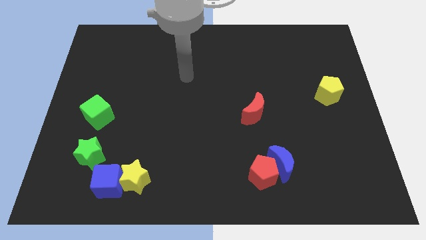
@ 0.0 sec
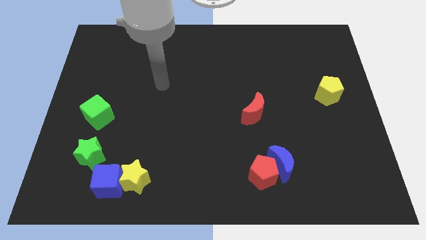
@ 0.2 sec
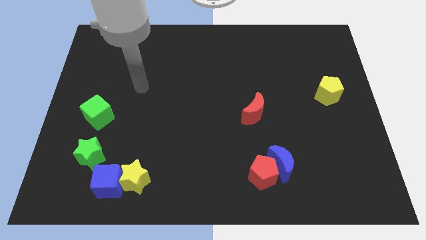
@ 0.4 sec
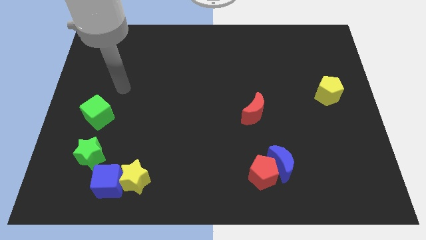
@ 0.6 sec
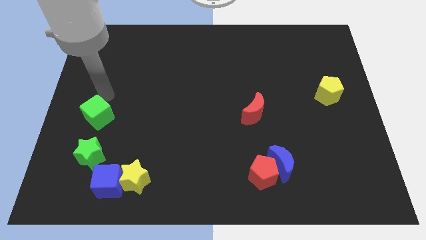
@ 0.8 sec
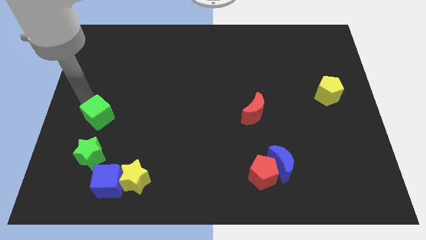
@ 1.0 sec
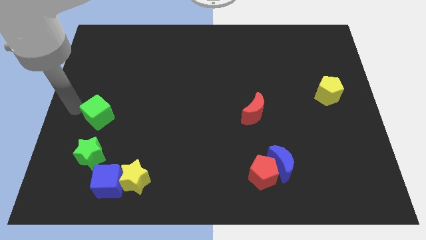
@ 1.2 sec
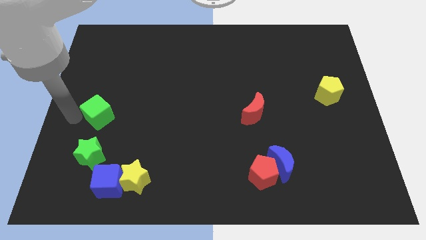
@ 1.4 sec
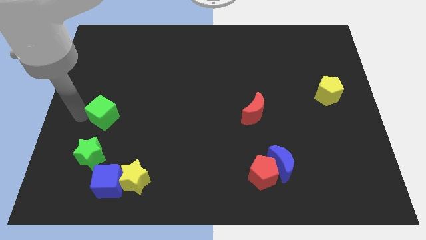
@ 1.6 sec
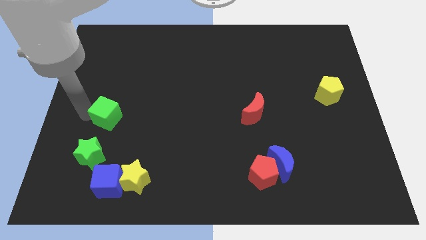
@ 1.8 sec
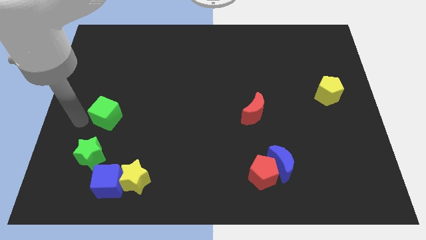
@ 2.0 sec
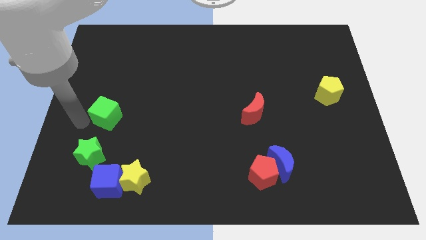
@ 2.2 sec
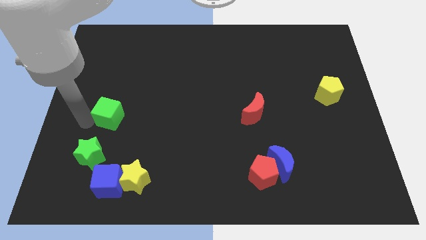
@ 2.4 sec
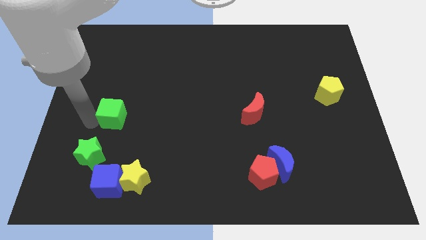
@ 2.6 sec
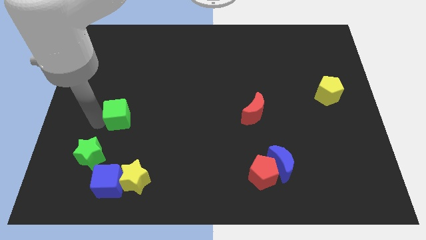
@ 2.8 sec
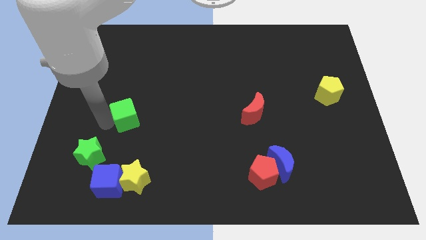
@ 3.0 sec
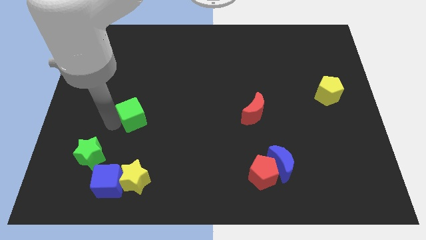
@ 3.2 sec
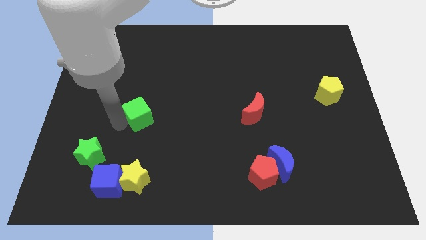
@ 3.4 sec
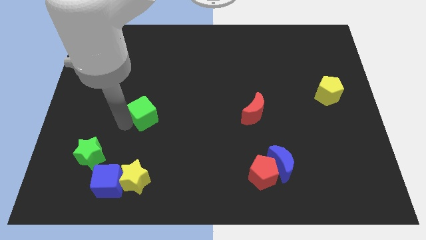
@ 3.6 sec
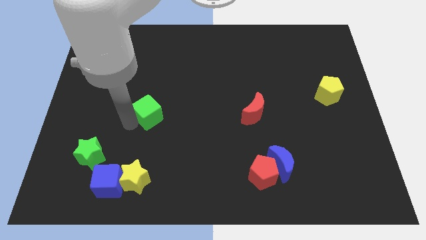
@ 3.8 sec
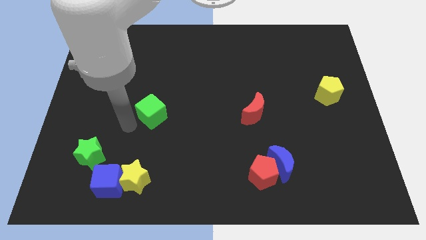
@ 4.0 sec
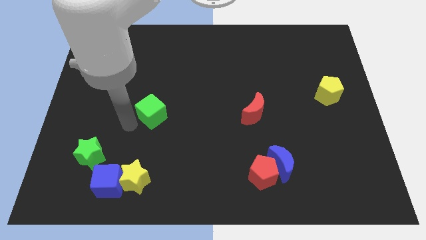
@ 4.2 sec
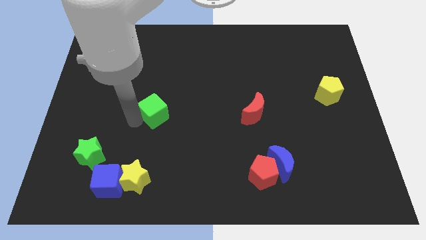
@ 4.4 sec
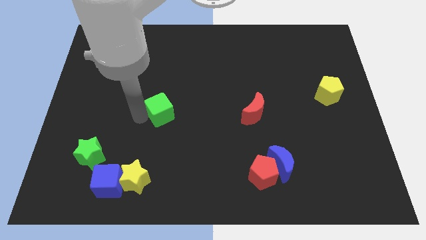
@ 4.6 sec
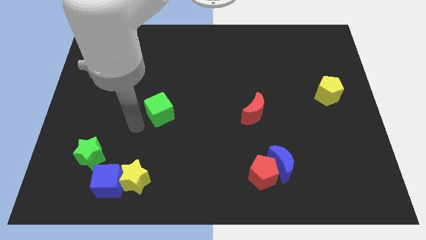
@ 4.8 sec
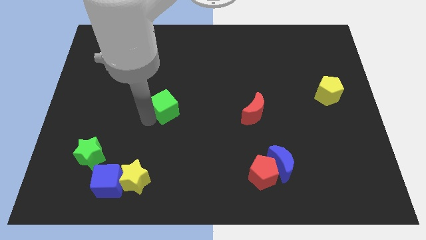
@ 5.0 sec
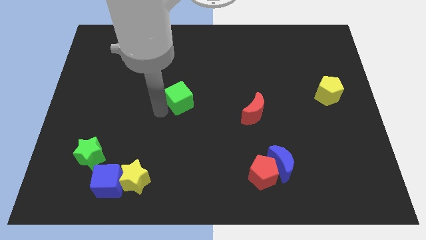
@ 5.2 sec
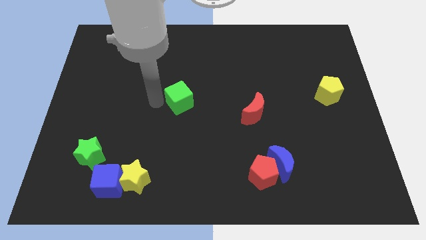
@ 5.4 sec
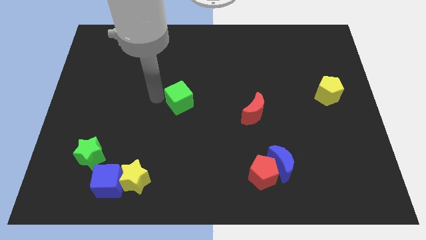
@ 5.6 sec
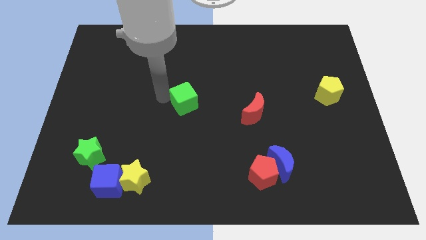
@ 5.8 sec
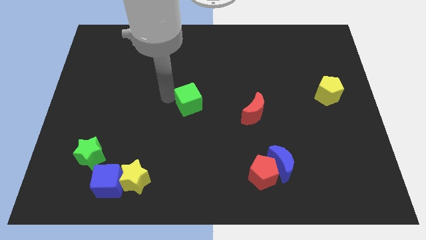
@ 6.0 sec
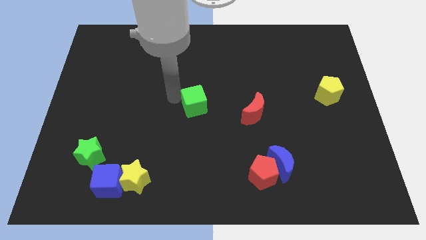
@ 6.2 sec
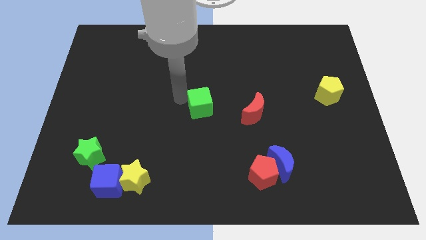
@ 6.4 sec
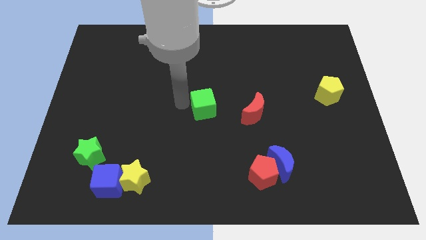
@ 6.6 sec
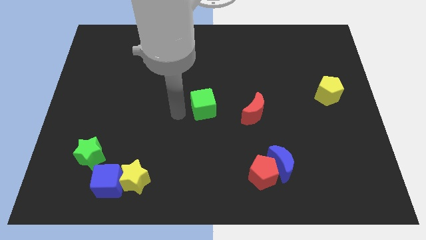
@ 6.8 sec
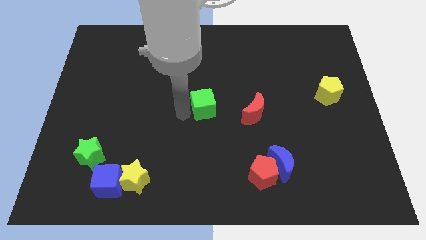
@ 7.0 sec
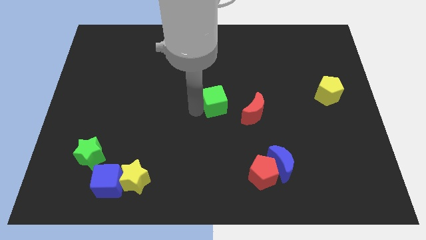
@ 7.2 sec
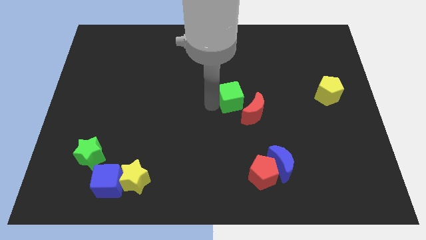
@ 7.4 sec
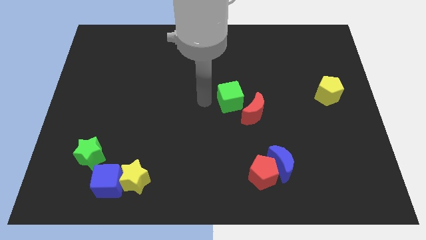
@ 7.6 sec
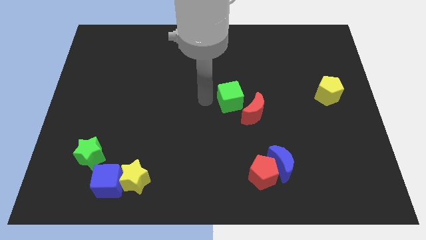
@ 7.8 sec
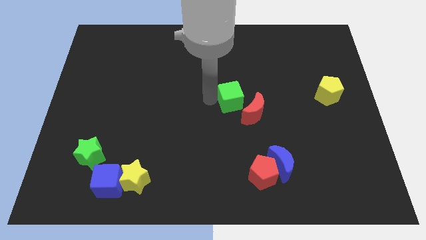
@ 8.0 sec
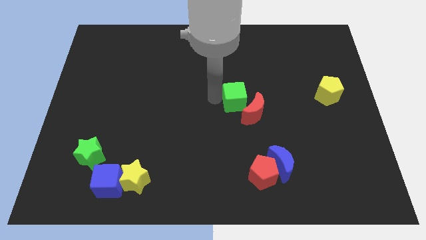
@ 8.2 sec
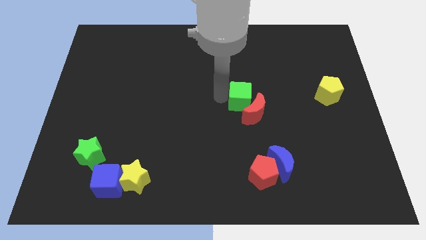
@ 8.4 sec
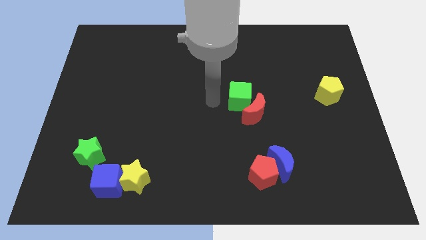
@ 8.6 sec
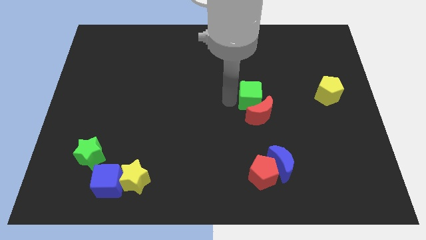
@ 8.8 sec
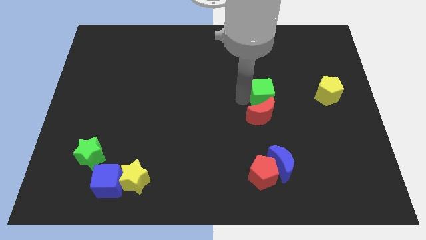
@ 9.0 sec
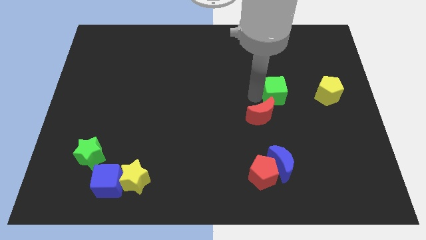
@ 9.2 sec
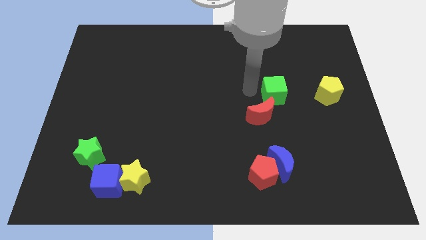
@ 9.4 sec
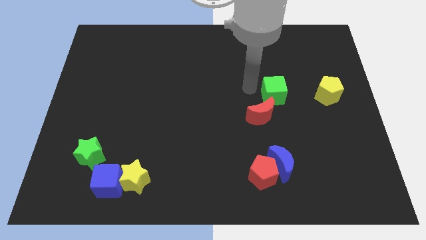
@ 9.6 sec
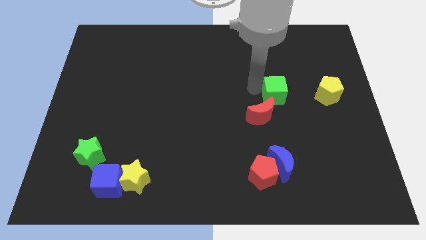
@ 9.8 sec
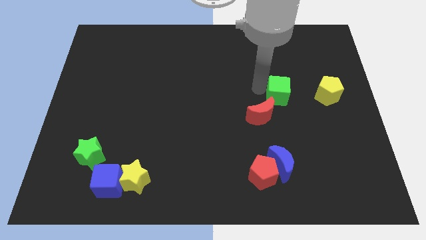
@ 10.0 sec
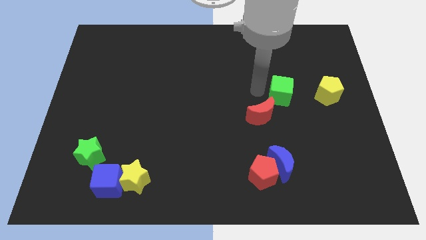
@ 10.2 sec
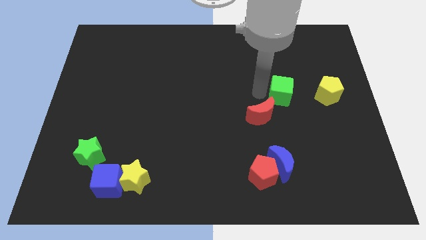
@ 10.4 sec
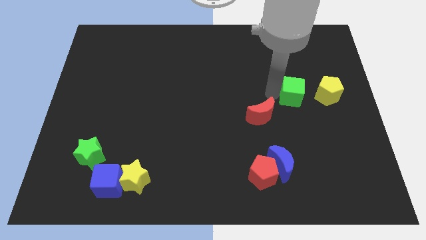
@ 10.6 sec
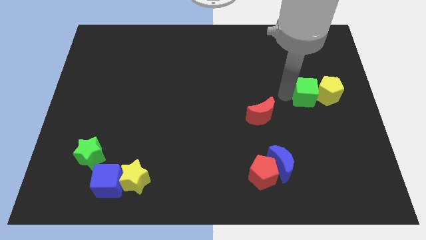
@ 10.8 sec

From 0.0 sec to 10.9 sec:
put the green cube to the yellow pentagon

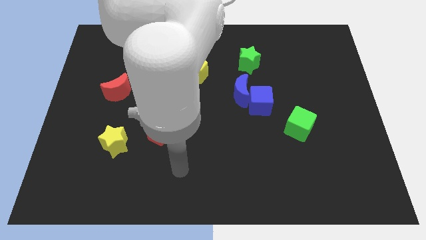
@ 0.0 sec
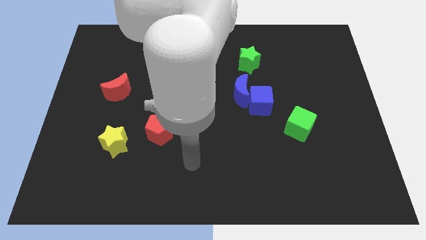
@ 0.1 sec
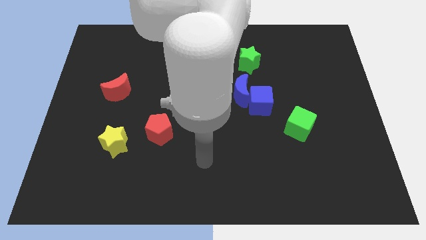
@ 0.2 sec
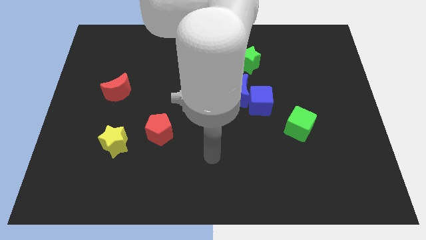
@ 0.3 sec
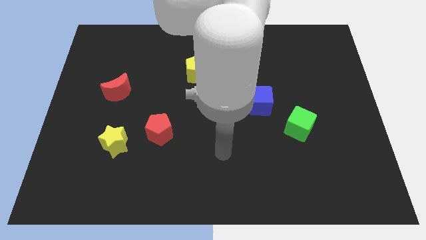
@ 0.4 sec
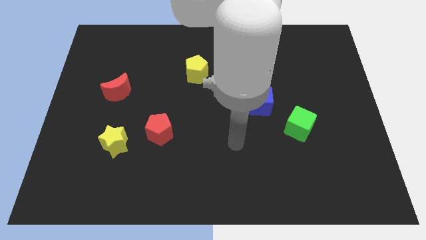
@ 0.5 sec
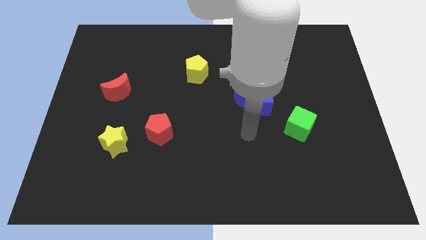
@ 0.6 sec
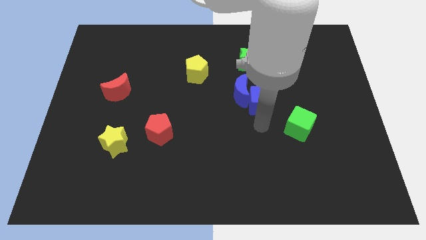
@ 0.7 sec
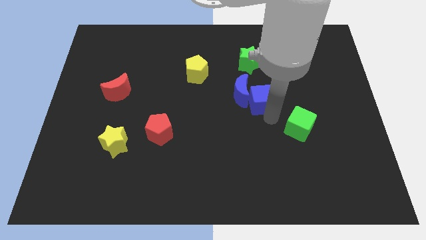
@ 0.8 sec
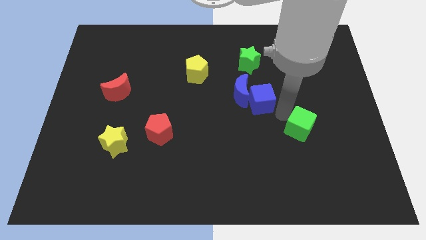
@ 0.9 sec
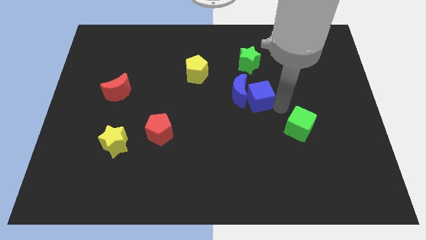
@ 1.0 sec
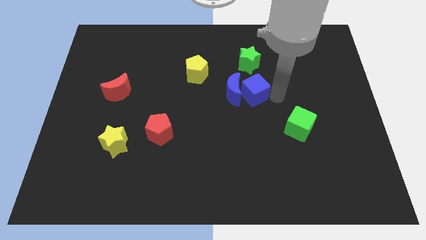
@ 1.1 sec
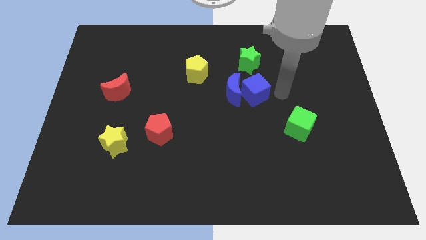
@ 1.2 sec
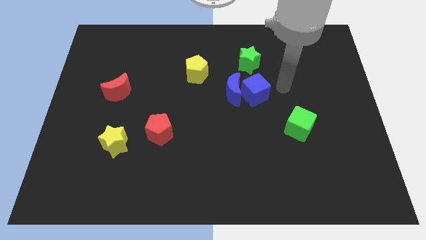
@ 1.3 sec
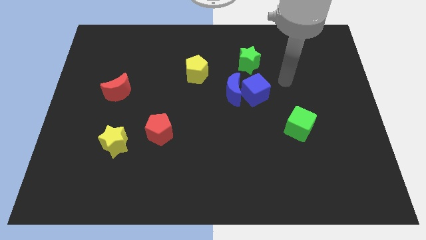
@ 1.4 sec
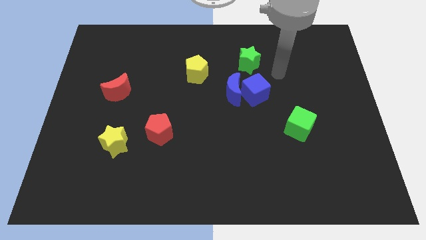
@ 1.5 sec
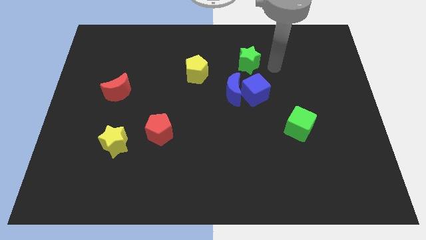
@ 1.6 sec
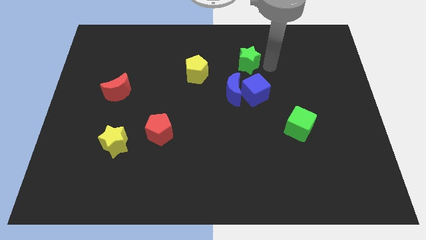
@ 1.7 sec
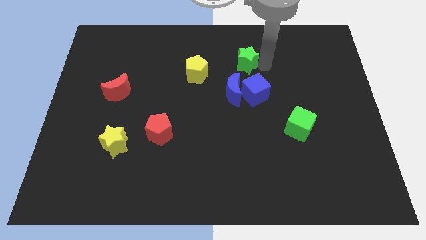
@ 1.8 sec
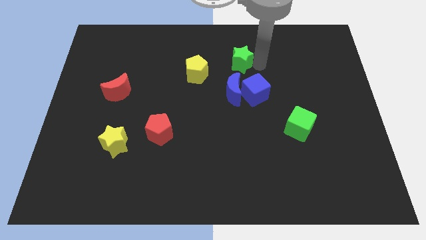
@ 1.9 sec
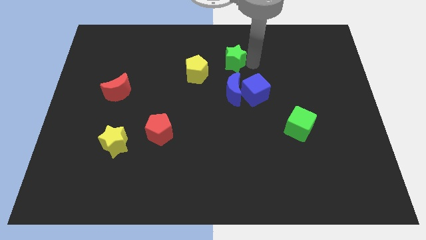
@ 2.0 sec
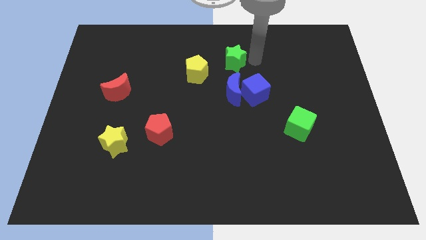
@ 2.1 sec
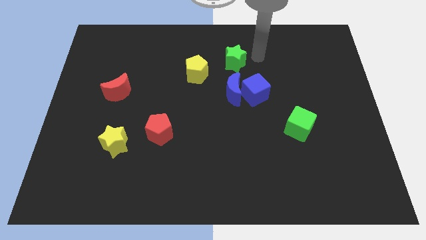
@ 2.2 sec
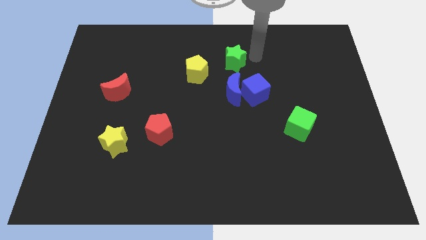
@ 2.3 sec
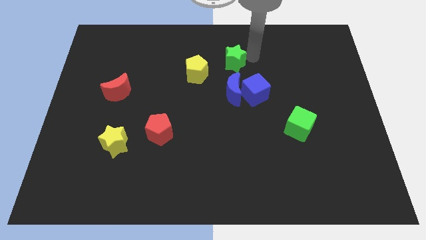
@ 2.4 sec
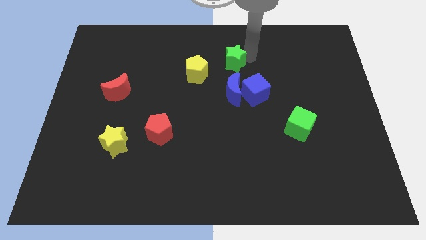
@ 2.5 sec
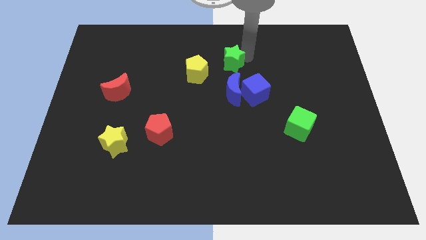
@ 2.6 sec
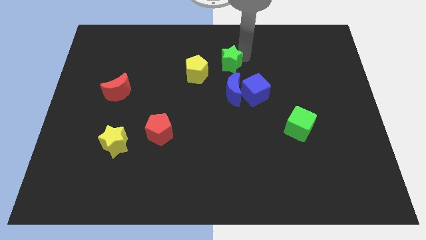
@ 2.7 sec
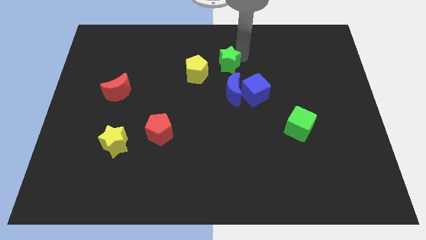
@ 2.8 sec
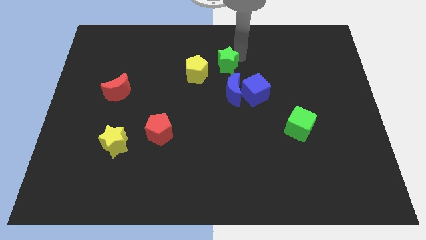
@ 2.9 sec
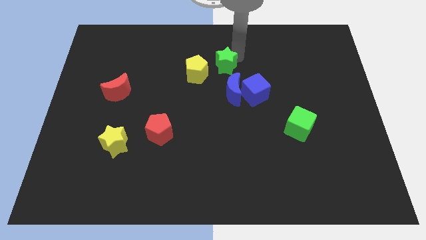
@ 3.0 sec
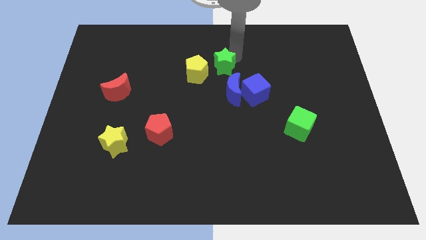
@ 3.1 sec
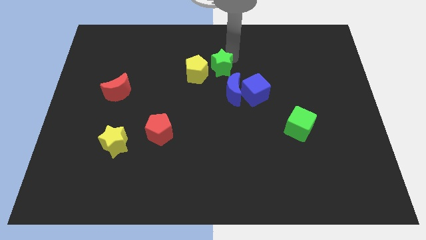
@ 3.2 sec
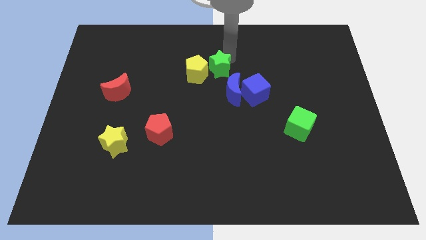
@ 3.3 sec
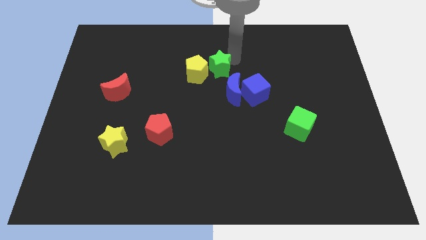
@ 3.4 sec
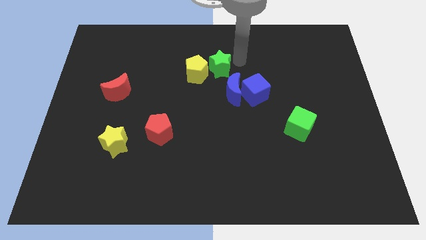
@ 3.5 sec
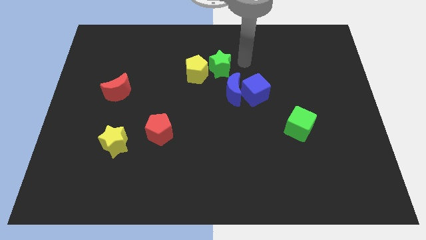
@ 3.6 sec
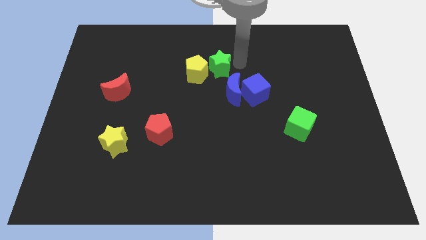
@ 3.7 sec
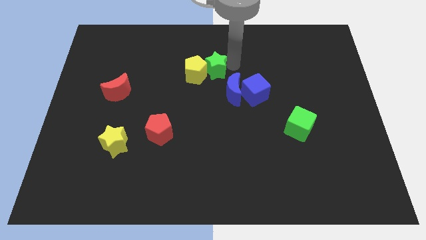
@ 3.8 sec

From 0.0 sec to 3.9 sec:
put the green star next to the yellow pentagon
